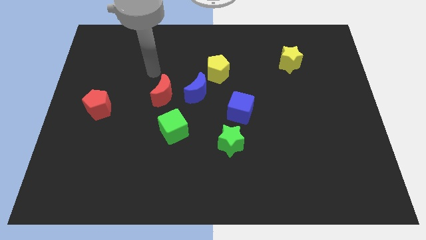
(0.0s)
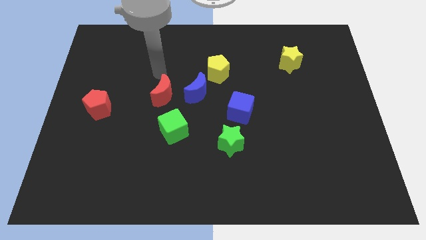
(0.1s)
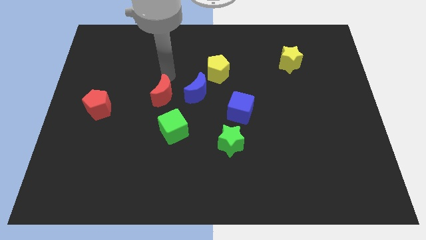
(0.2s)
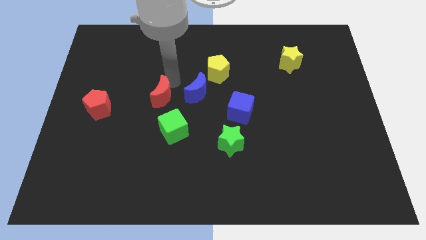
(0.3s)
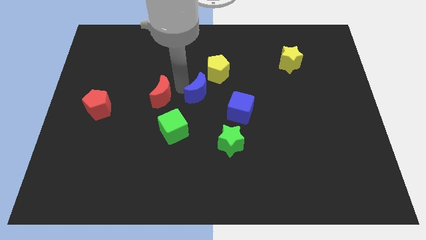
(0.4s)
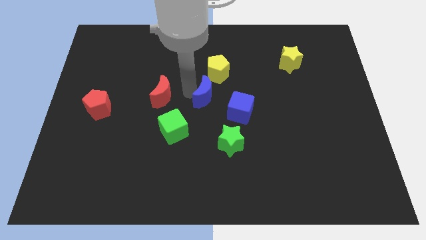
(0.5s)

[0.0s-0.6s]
move the red moon away from the blue moon

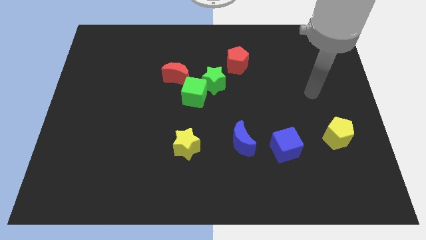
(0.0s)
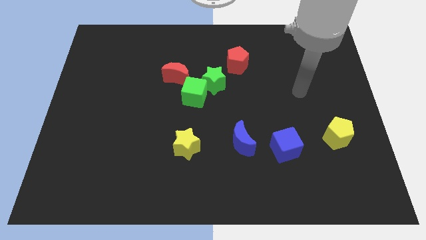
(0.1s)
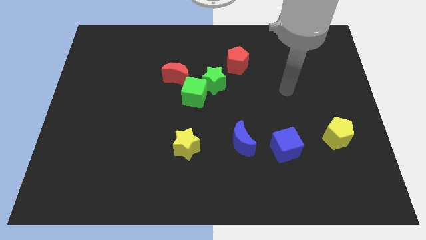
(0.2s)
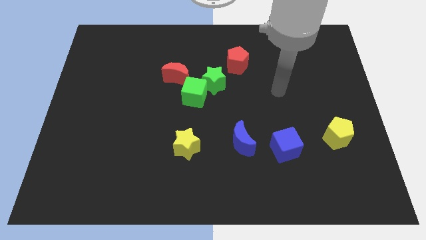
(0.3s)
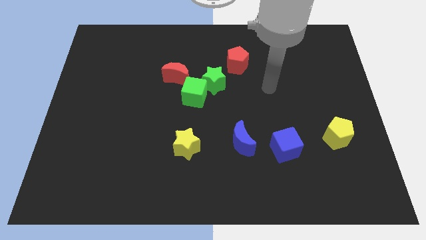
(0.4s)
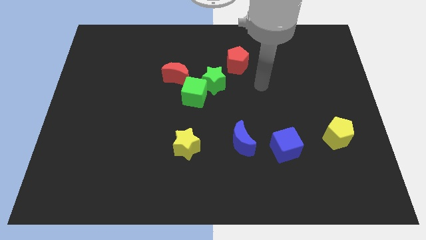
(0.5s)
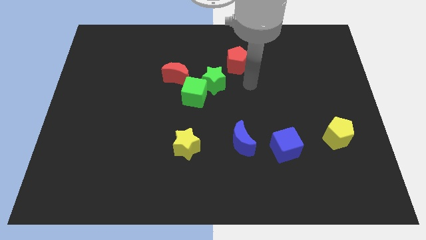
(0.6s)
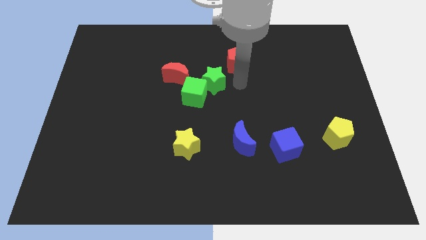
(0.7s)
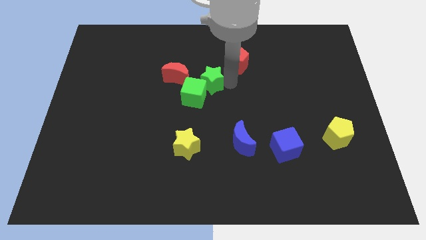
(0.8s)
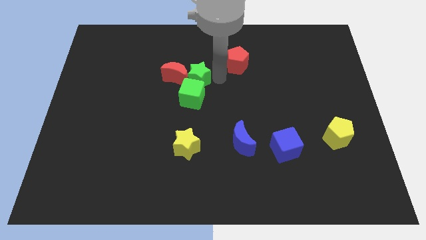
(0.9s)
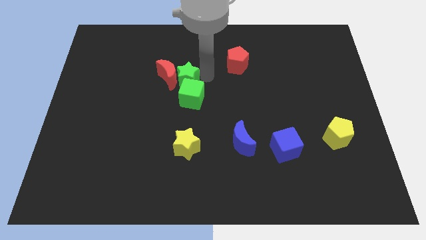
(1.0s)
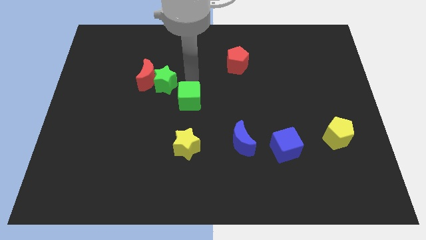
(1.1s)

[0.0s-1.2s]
separate the green cube from the green star and red moon

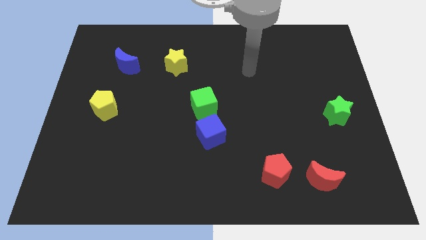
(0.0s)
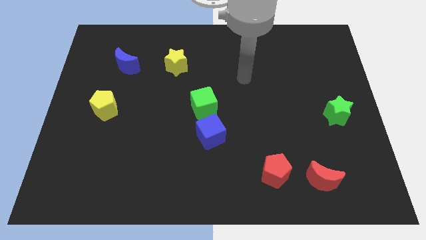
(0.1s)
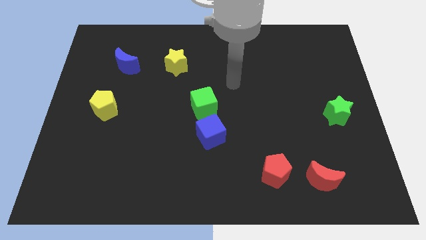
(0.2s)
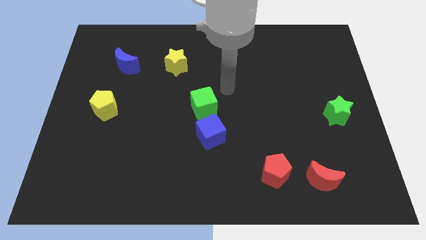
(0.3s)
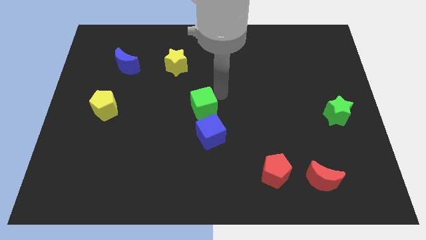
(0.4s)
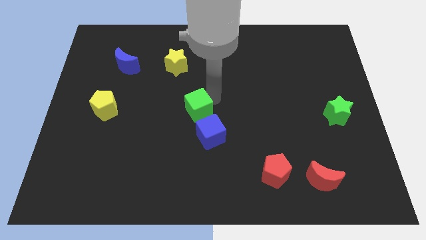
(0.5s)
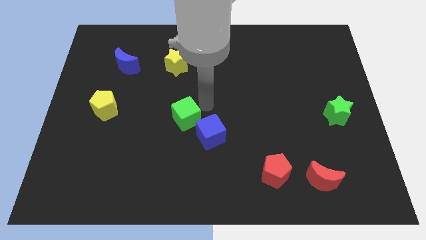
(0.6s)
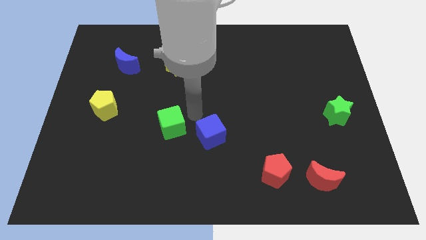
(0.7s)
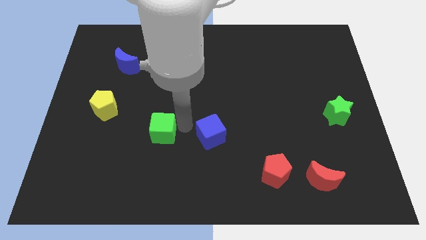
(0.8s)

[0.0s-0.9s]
separate the blue cube from the green cube

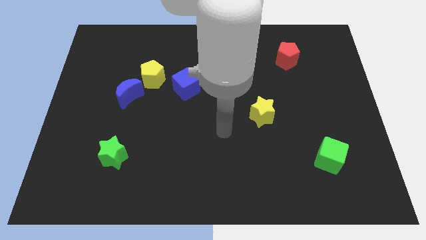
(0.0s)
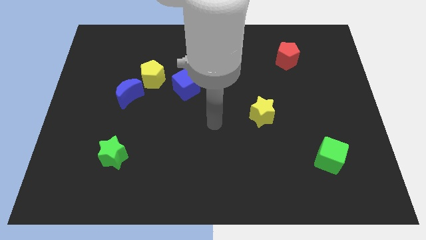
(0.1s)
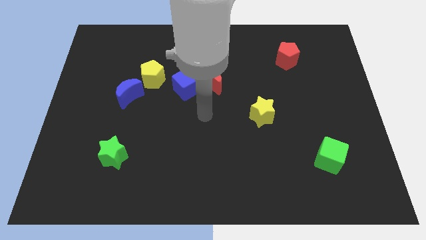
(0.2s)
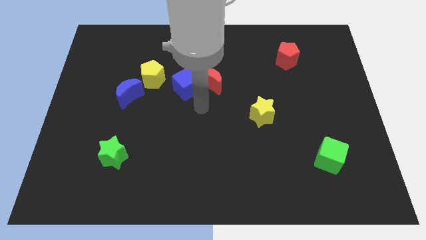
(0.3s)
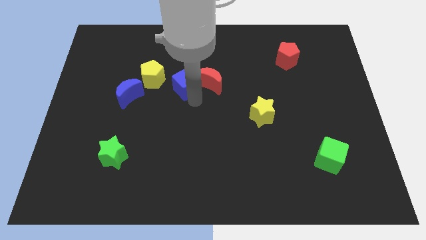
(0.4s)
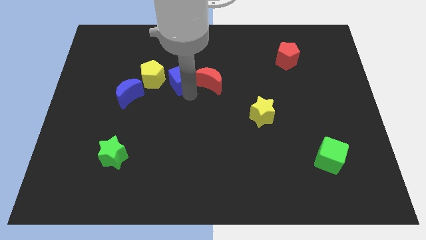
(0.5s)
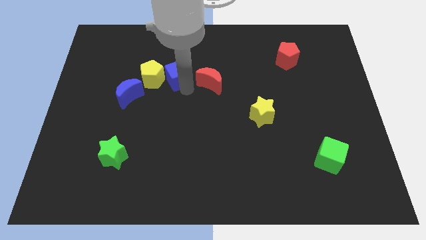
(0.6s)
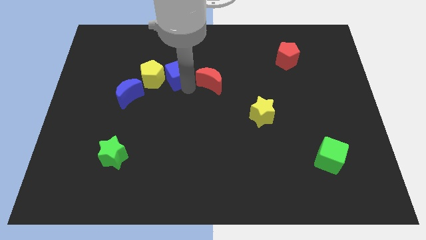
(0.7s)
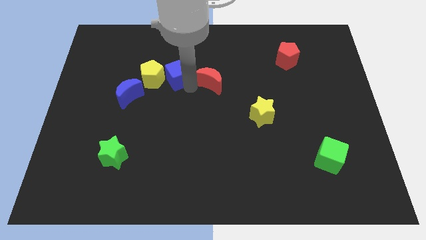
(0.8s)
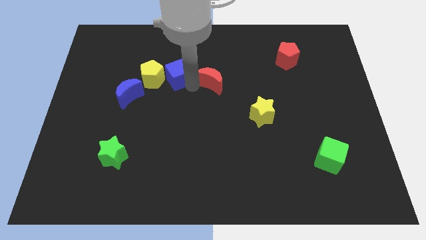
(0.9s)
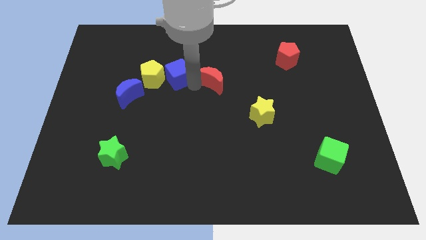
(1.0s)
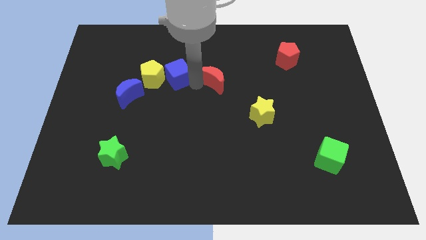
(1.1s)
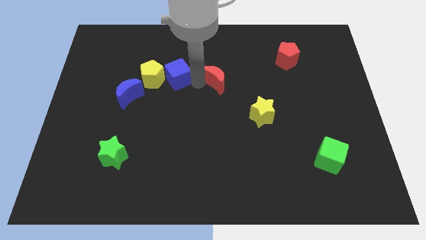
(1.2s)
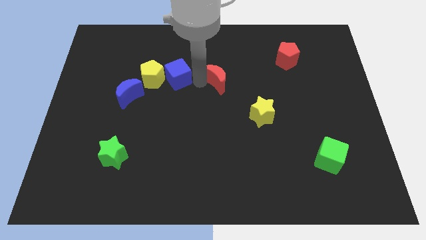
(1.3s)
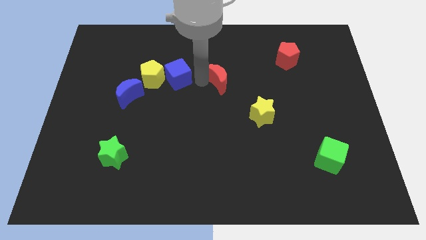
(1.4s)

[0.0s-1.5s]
move the red moon away from the blue cube

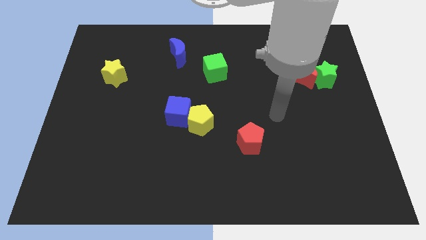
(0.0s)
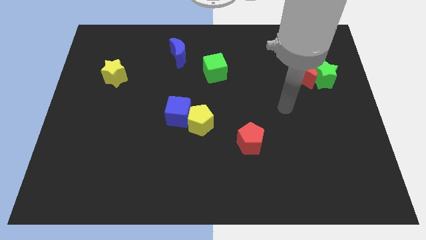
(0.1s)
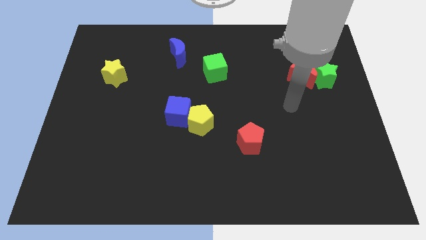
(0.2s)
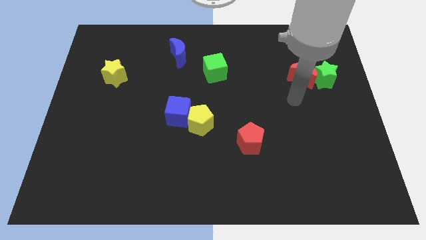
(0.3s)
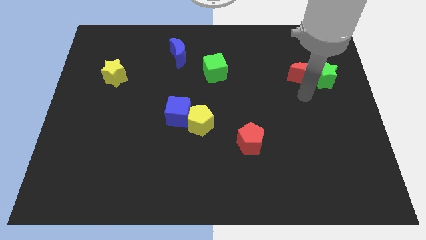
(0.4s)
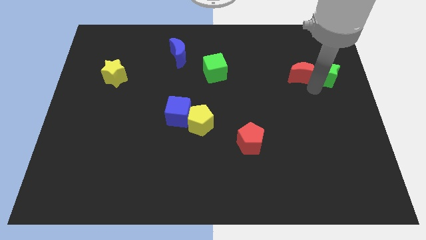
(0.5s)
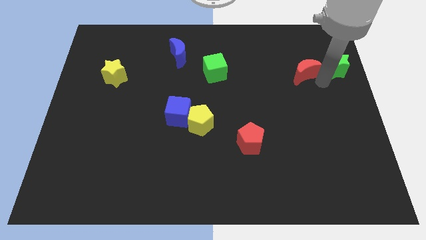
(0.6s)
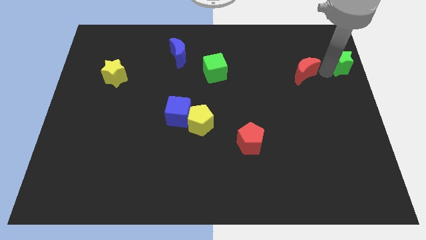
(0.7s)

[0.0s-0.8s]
pull the red moon apart from the green star

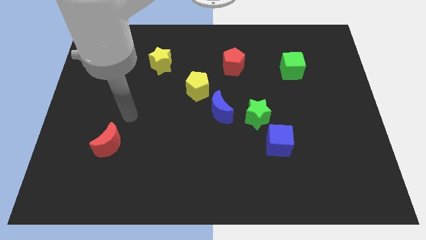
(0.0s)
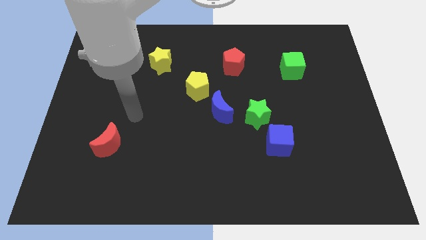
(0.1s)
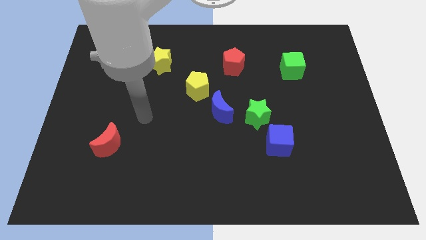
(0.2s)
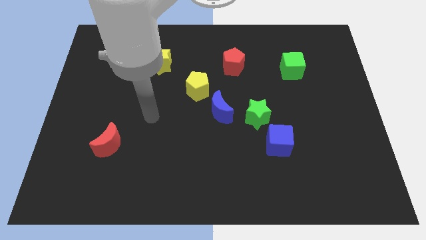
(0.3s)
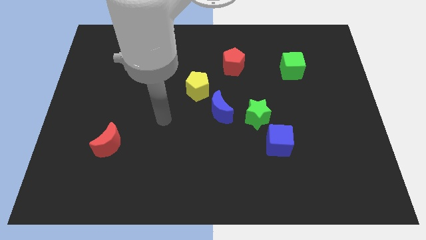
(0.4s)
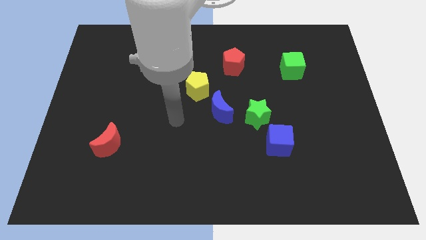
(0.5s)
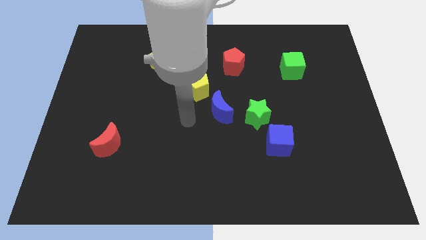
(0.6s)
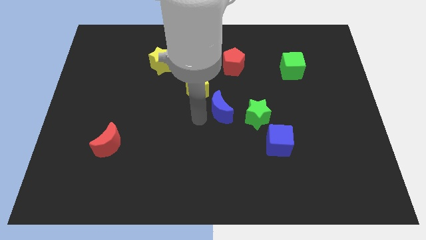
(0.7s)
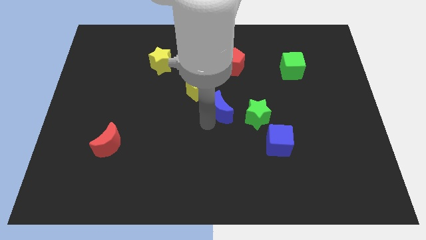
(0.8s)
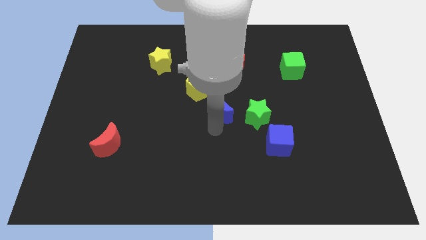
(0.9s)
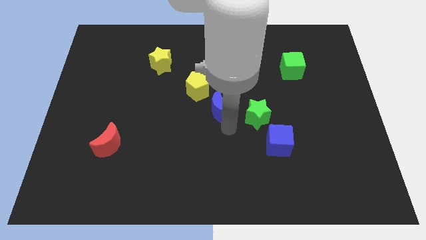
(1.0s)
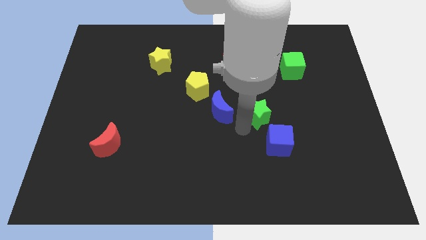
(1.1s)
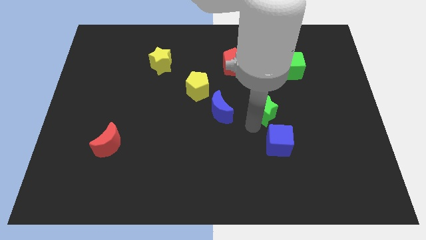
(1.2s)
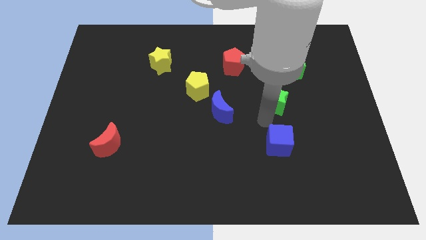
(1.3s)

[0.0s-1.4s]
move the blue cube away from the green star

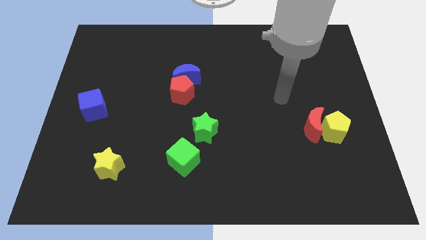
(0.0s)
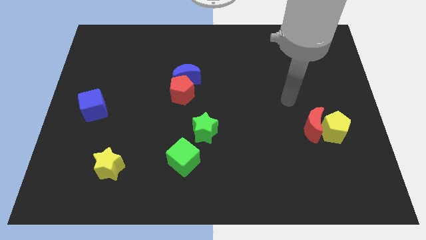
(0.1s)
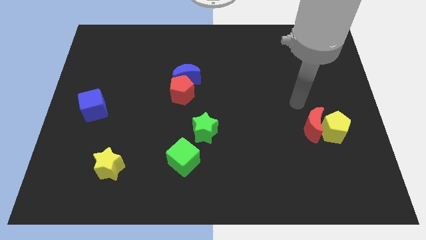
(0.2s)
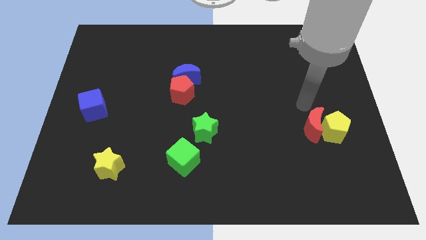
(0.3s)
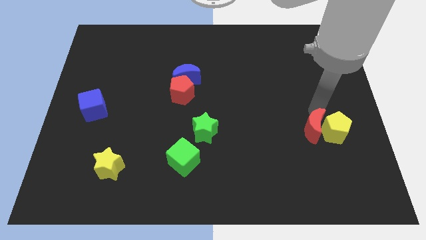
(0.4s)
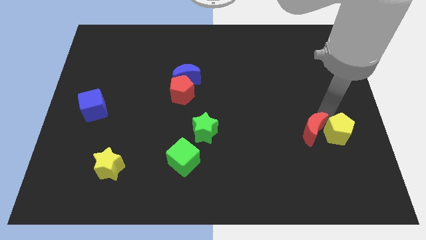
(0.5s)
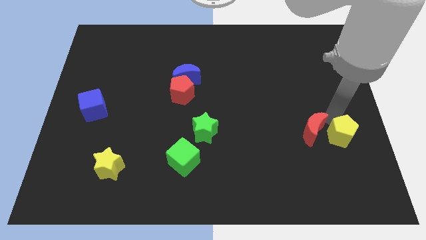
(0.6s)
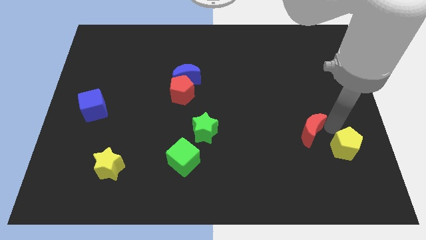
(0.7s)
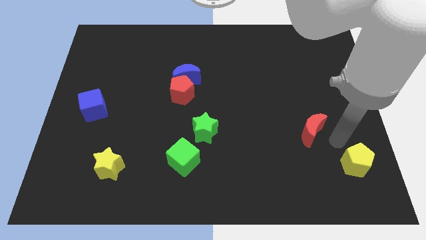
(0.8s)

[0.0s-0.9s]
move the red moon away from the yellow pentagon

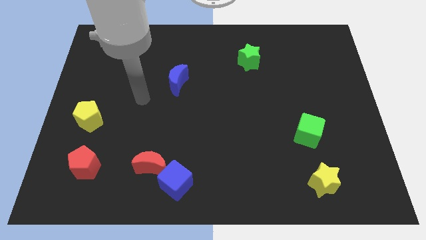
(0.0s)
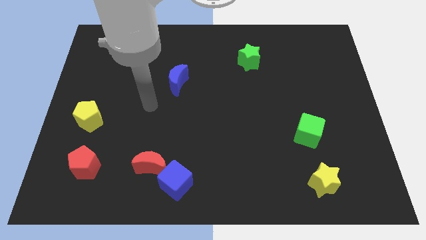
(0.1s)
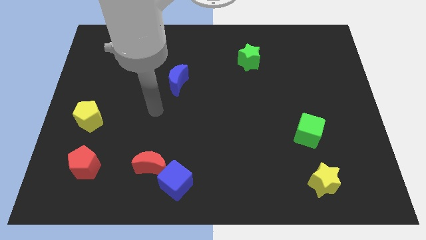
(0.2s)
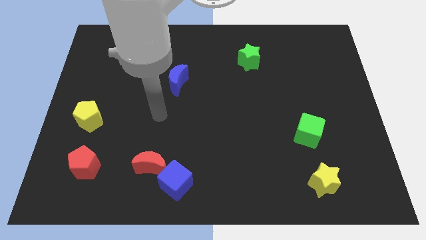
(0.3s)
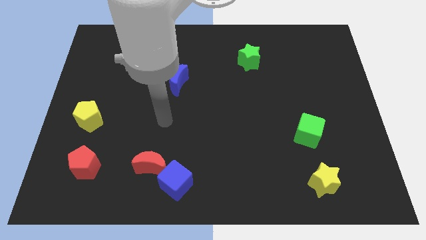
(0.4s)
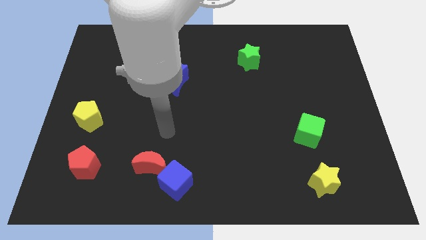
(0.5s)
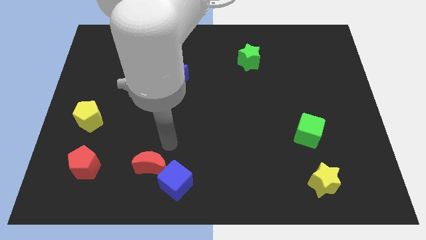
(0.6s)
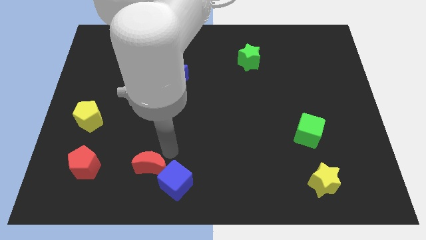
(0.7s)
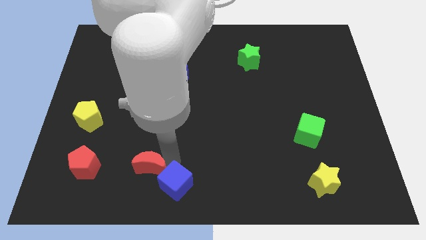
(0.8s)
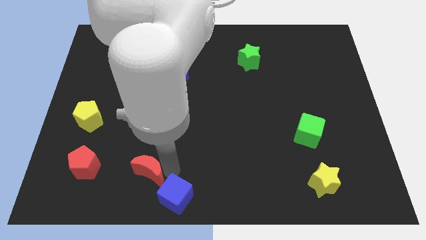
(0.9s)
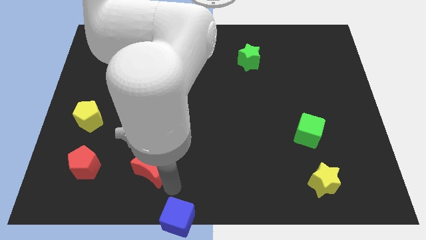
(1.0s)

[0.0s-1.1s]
separate the red moon from the blue cube

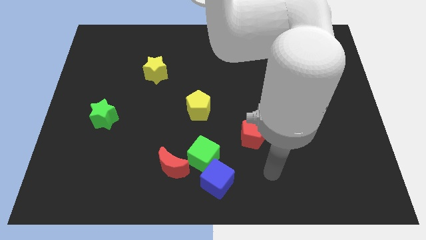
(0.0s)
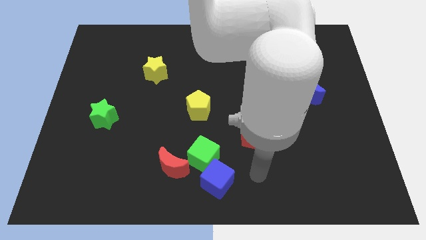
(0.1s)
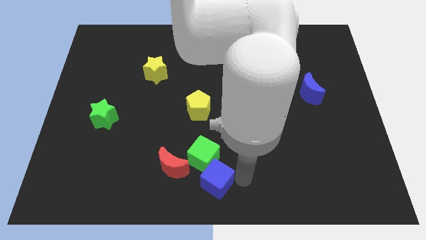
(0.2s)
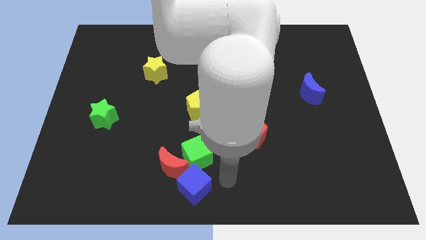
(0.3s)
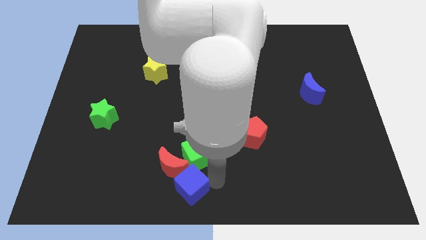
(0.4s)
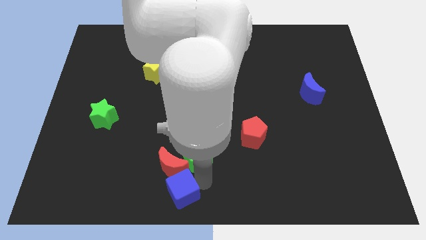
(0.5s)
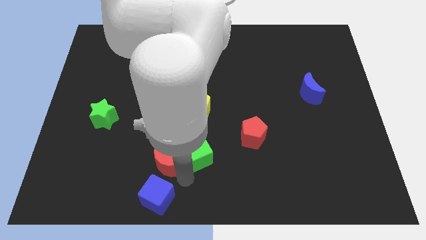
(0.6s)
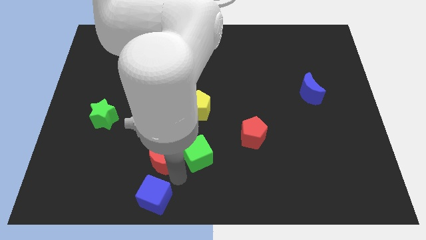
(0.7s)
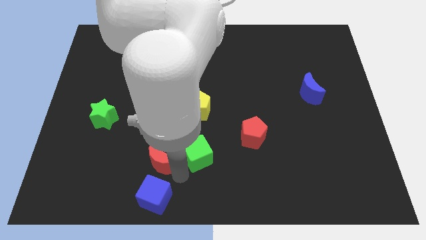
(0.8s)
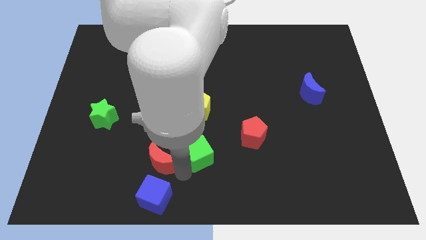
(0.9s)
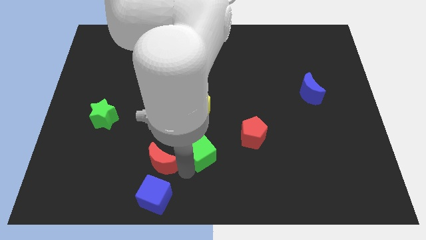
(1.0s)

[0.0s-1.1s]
move the green cube away from the blue cube and red moon
